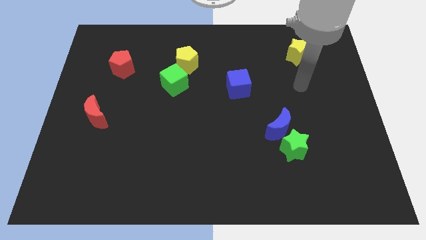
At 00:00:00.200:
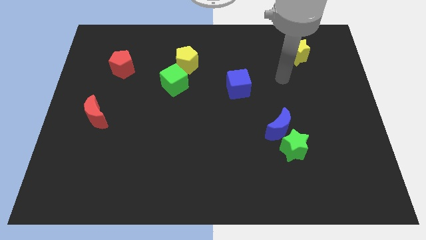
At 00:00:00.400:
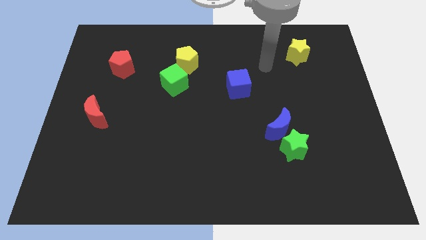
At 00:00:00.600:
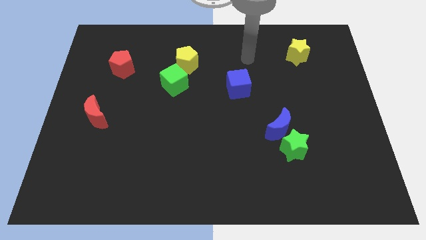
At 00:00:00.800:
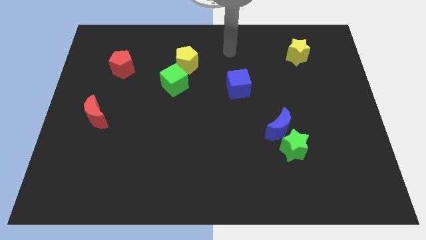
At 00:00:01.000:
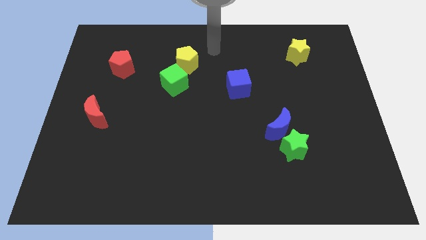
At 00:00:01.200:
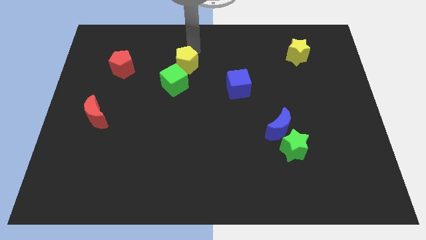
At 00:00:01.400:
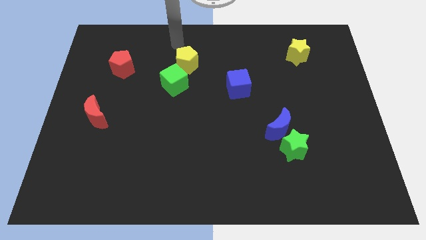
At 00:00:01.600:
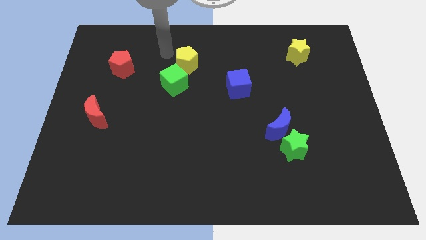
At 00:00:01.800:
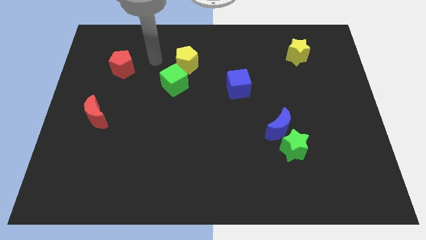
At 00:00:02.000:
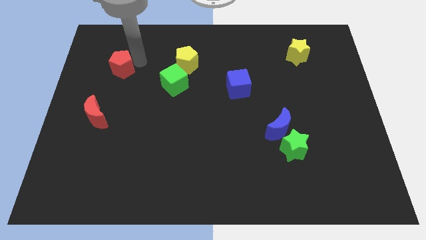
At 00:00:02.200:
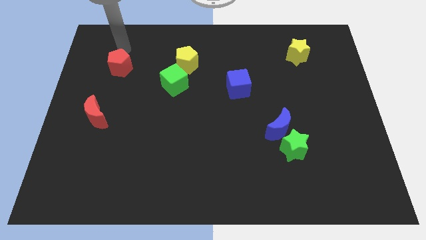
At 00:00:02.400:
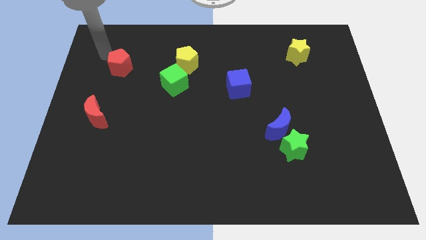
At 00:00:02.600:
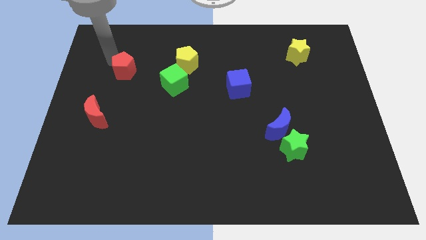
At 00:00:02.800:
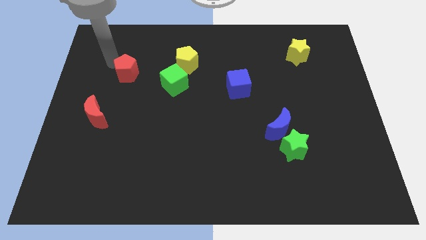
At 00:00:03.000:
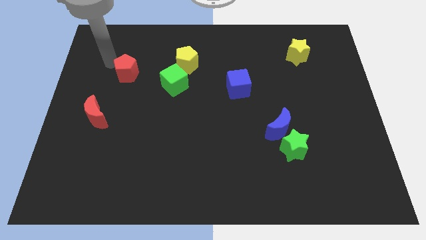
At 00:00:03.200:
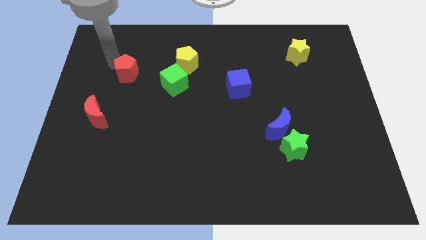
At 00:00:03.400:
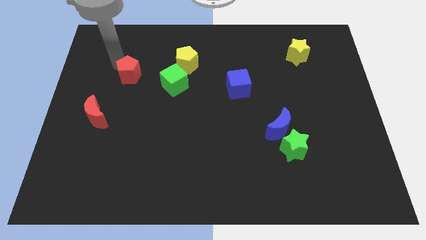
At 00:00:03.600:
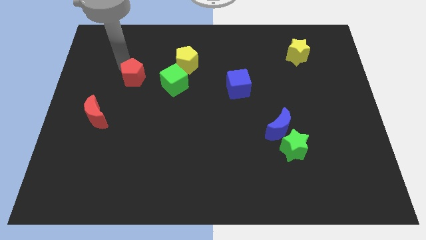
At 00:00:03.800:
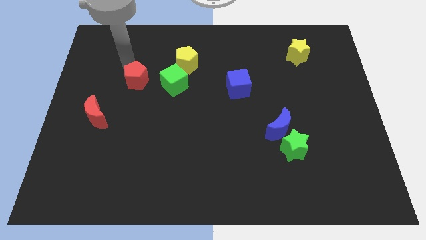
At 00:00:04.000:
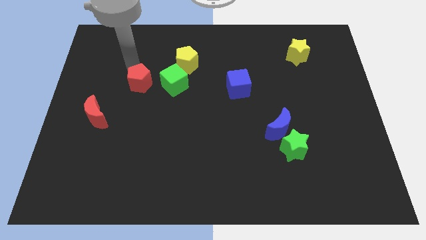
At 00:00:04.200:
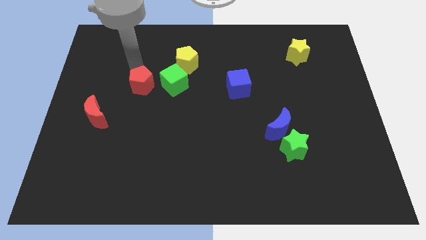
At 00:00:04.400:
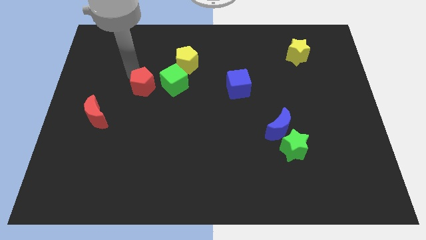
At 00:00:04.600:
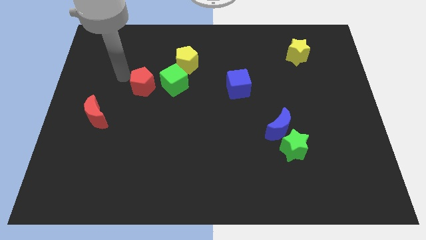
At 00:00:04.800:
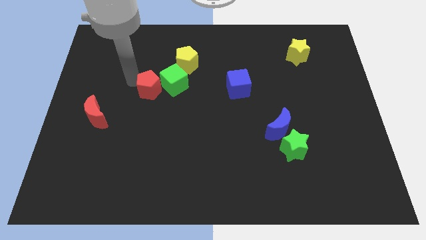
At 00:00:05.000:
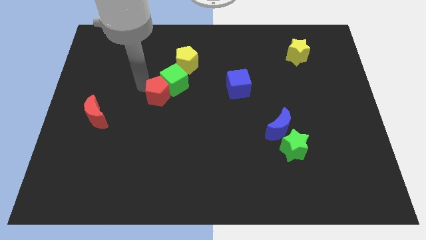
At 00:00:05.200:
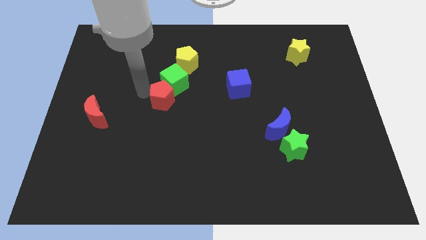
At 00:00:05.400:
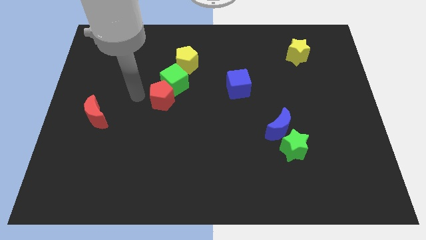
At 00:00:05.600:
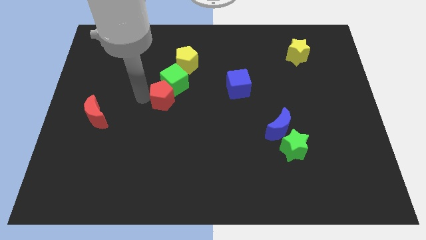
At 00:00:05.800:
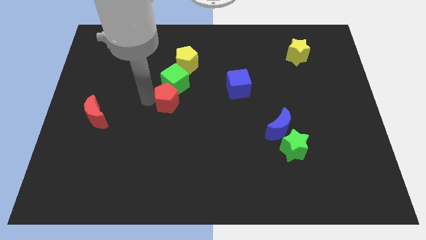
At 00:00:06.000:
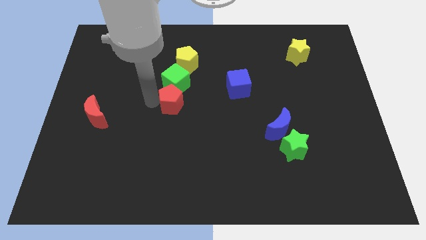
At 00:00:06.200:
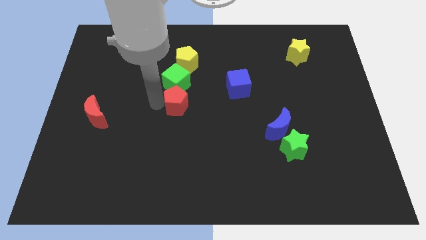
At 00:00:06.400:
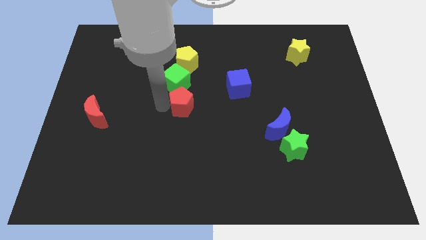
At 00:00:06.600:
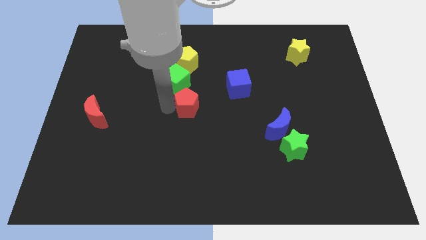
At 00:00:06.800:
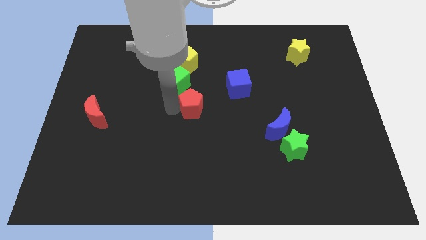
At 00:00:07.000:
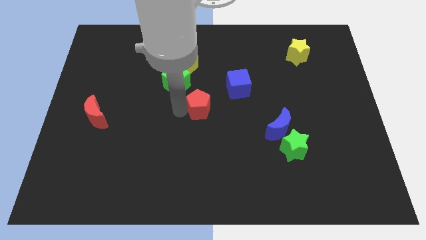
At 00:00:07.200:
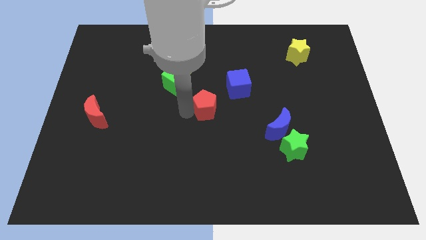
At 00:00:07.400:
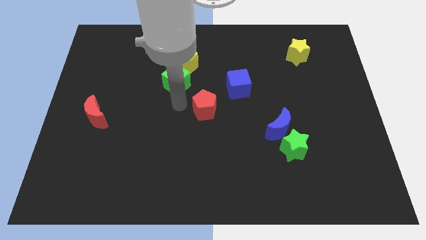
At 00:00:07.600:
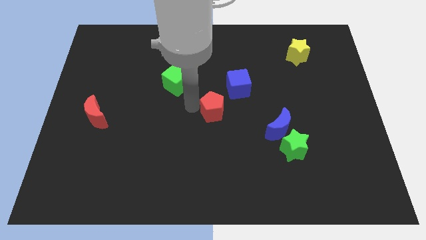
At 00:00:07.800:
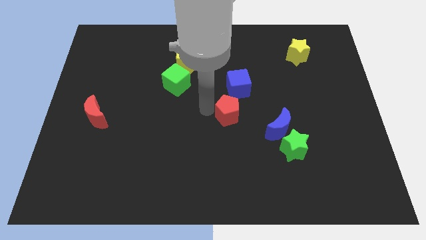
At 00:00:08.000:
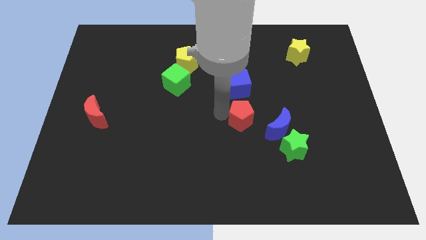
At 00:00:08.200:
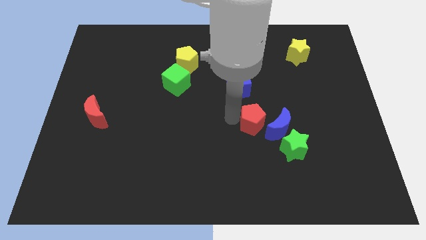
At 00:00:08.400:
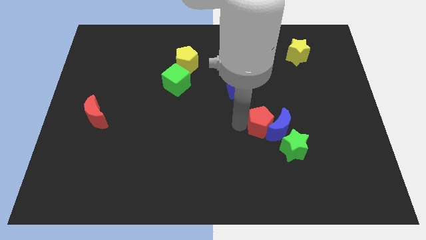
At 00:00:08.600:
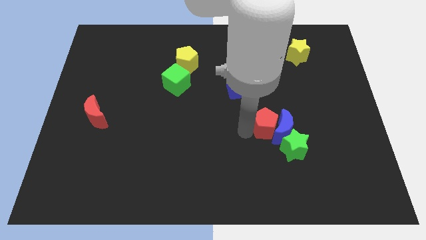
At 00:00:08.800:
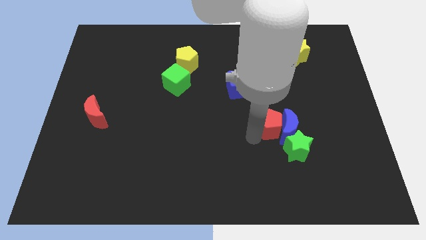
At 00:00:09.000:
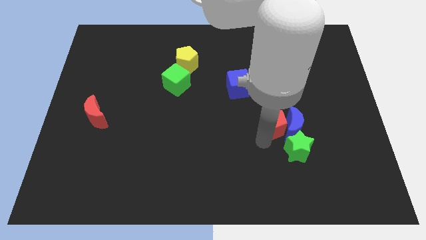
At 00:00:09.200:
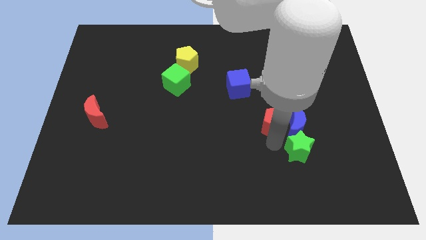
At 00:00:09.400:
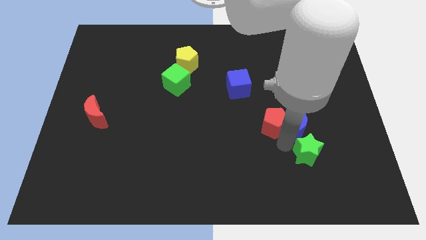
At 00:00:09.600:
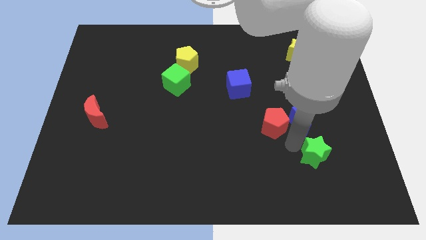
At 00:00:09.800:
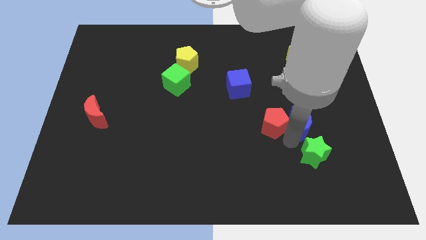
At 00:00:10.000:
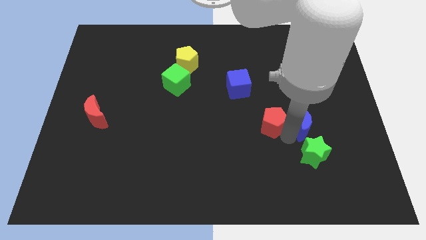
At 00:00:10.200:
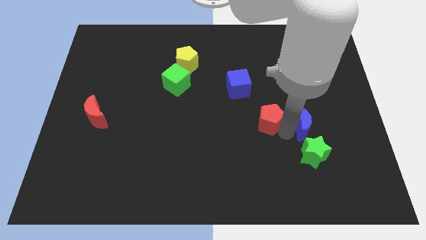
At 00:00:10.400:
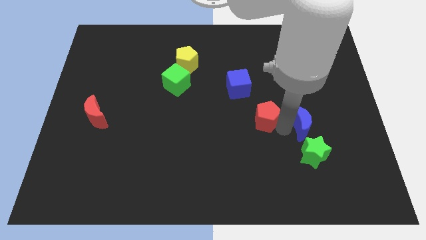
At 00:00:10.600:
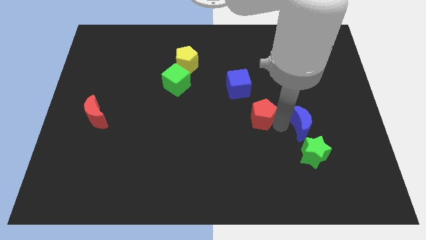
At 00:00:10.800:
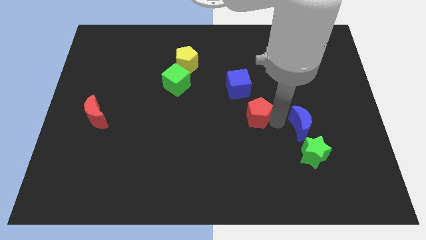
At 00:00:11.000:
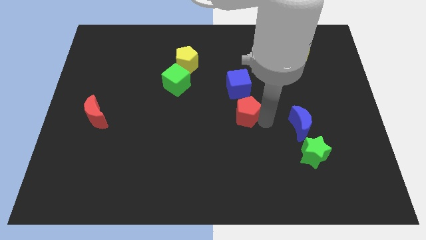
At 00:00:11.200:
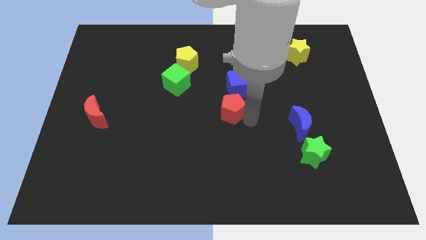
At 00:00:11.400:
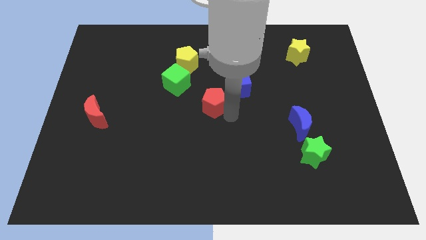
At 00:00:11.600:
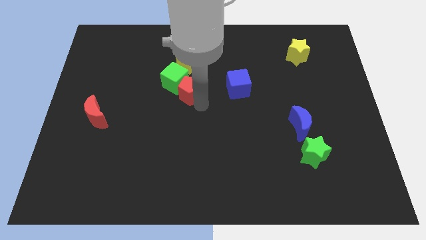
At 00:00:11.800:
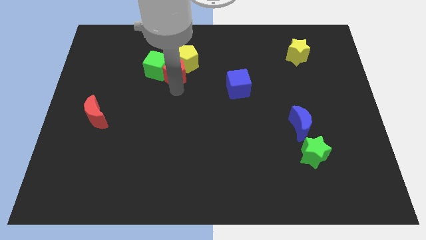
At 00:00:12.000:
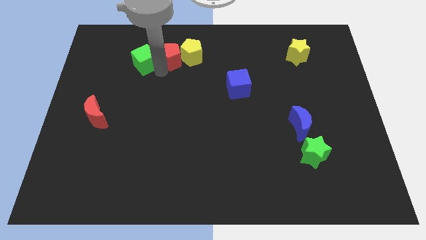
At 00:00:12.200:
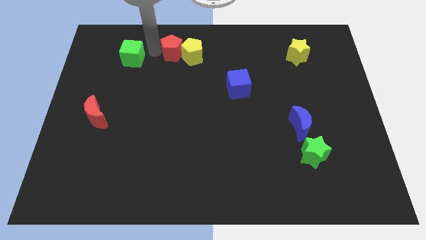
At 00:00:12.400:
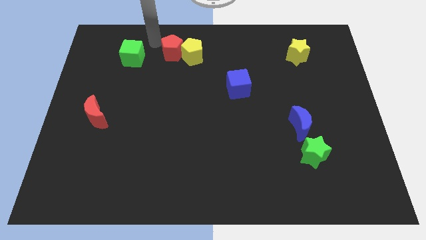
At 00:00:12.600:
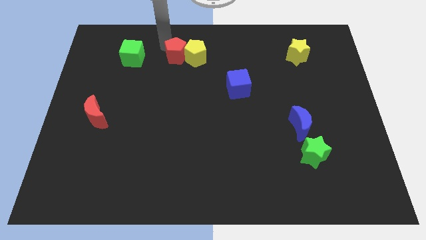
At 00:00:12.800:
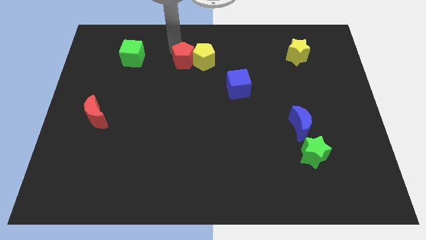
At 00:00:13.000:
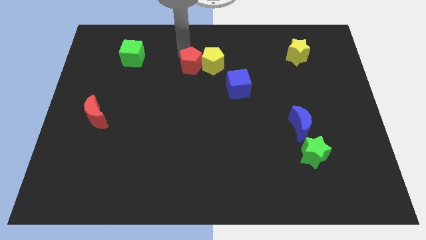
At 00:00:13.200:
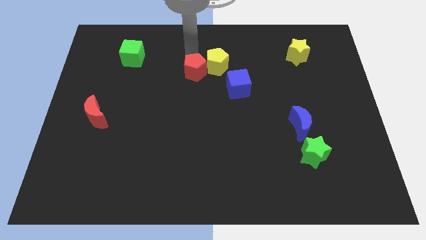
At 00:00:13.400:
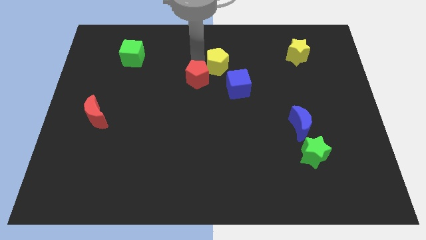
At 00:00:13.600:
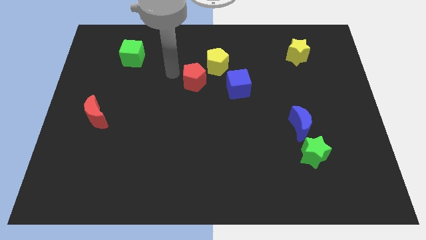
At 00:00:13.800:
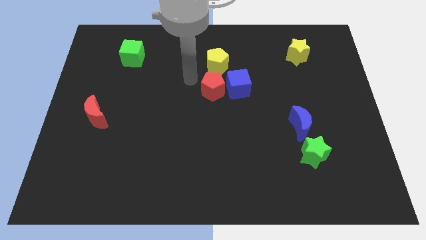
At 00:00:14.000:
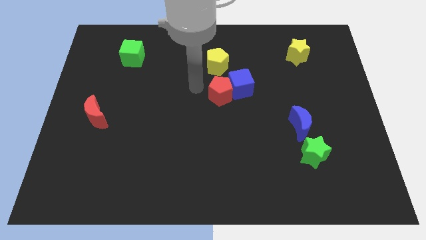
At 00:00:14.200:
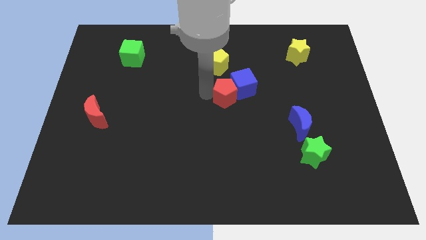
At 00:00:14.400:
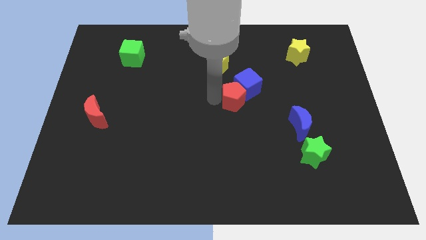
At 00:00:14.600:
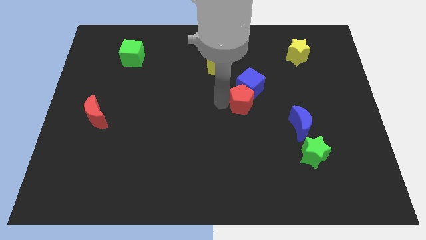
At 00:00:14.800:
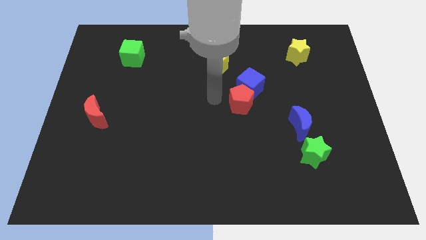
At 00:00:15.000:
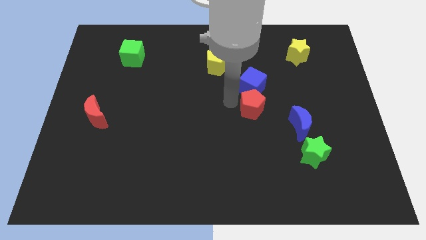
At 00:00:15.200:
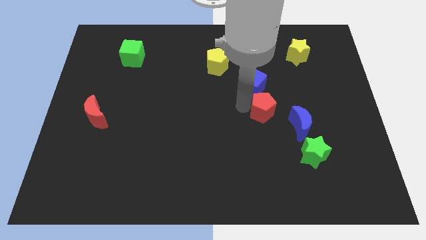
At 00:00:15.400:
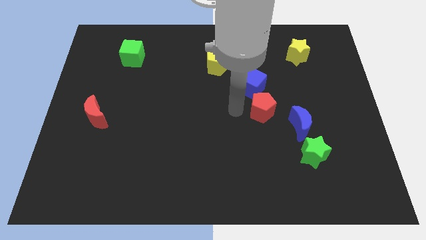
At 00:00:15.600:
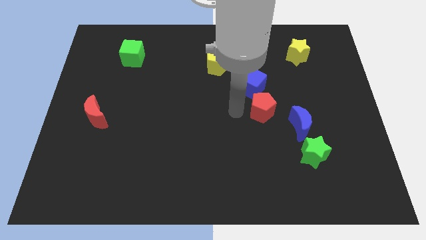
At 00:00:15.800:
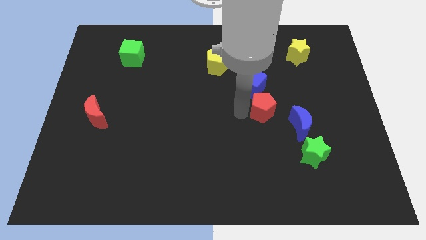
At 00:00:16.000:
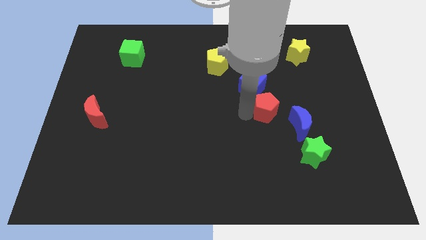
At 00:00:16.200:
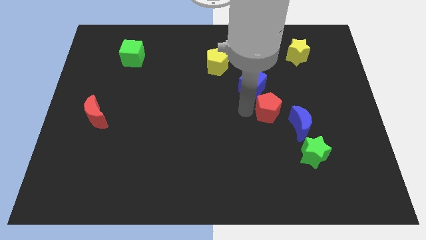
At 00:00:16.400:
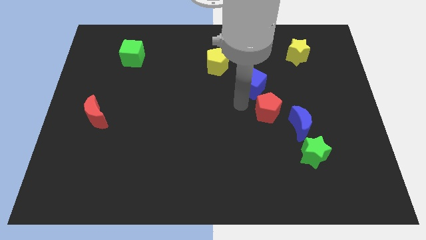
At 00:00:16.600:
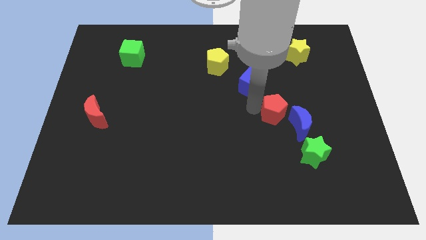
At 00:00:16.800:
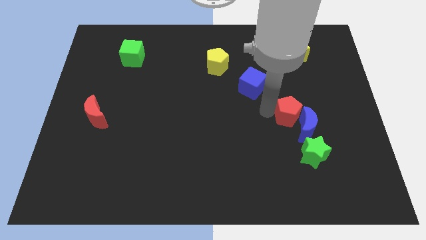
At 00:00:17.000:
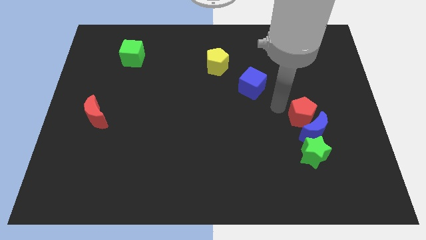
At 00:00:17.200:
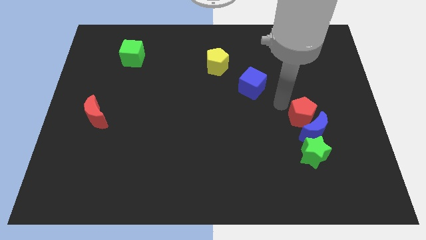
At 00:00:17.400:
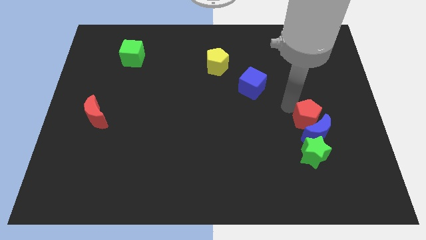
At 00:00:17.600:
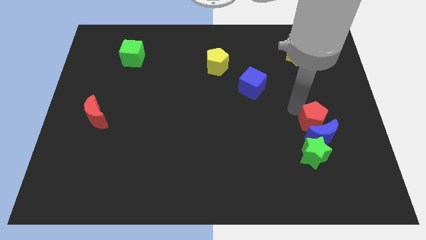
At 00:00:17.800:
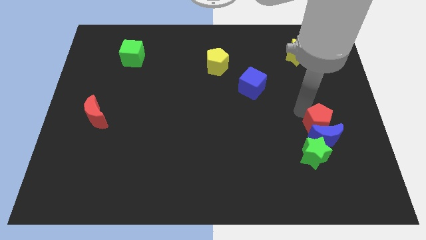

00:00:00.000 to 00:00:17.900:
slide the red pentagon to the top right of the green star
